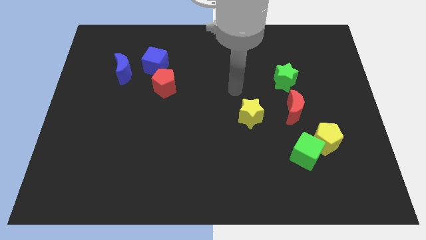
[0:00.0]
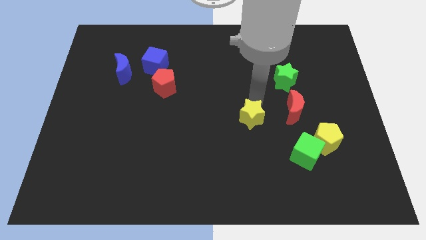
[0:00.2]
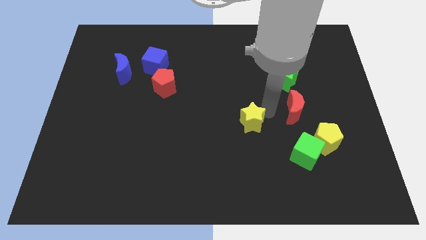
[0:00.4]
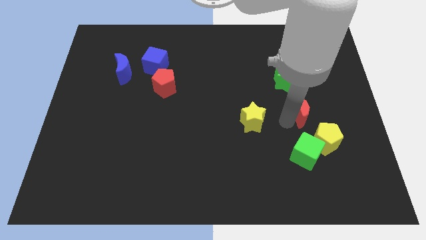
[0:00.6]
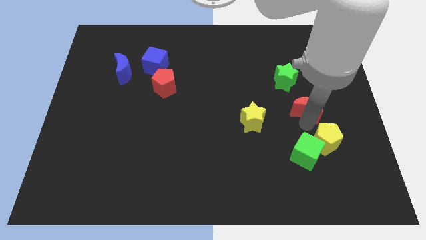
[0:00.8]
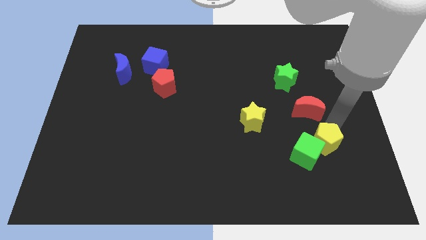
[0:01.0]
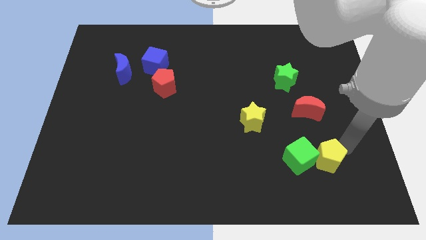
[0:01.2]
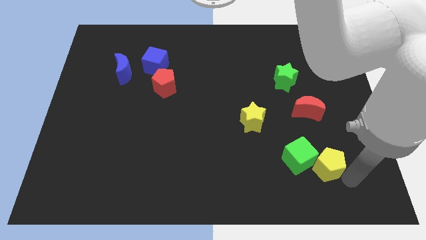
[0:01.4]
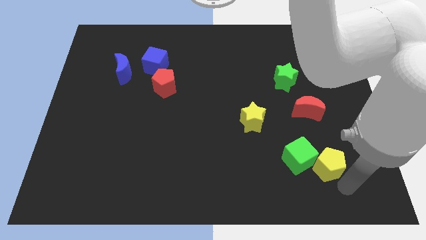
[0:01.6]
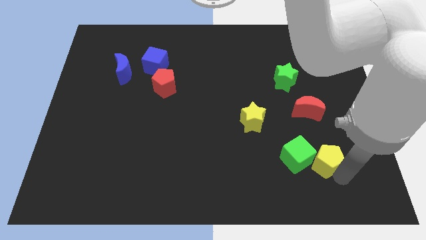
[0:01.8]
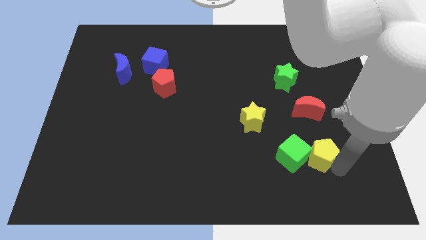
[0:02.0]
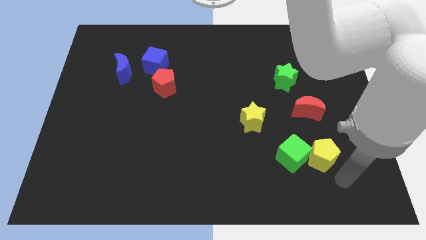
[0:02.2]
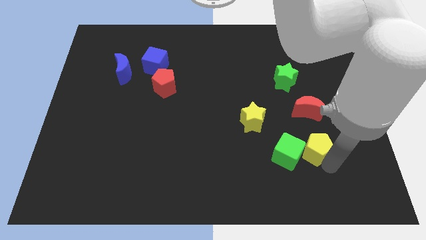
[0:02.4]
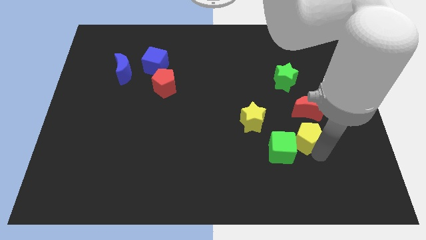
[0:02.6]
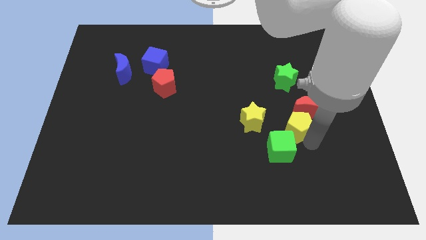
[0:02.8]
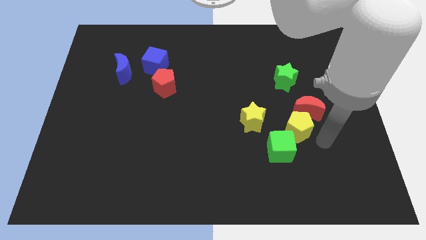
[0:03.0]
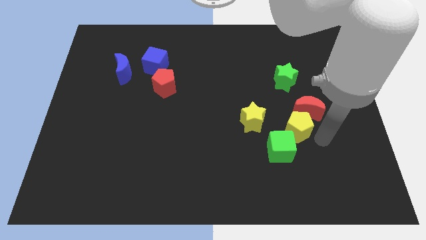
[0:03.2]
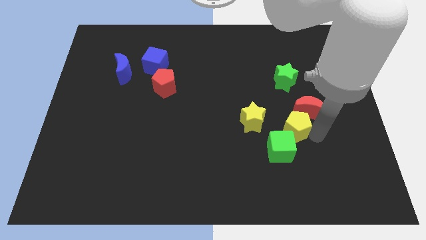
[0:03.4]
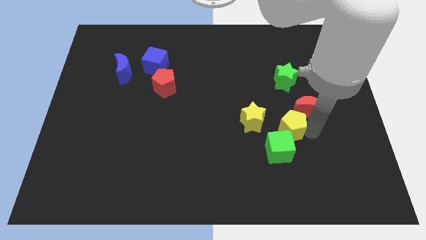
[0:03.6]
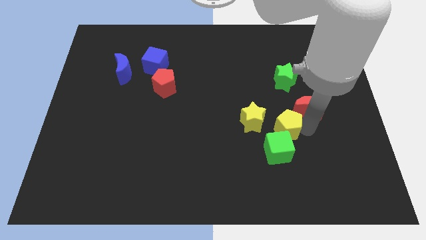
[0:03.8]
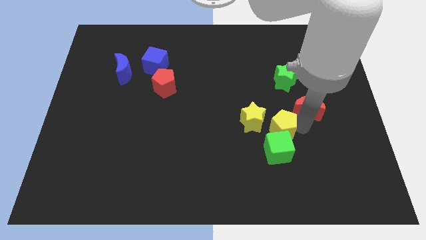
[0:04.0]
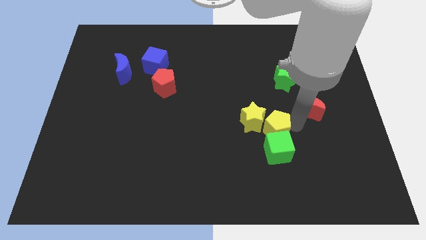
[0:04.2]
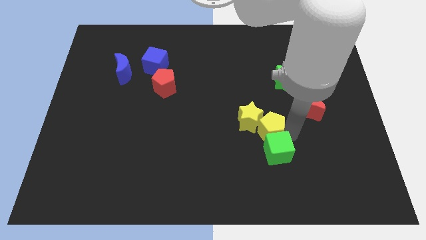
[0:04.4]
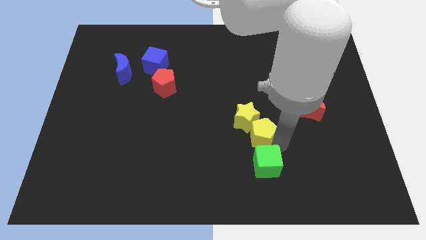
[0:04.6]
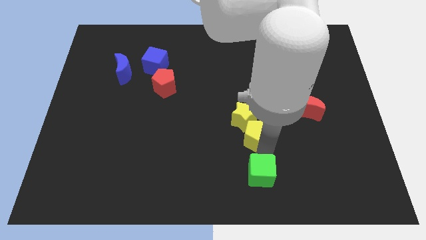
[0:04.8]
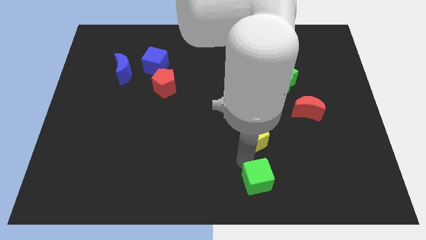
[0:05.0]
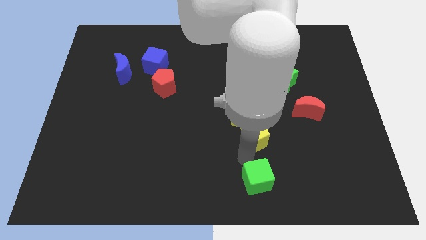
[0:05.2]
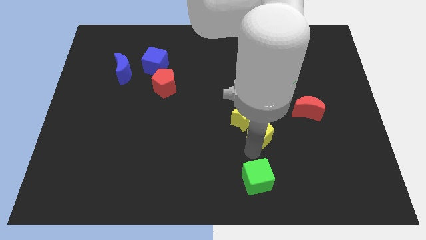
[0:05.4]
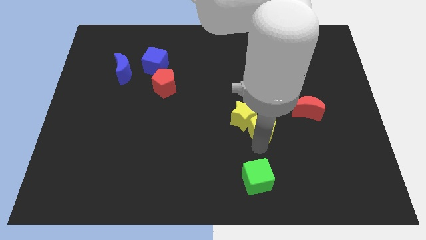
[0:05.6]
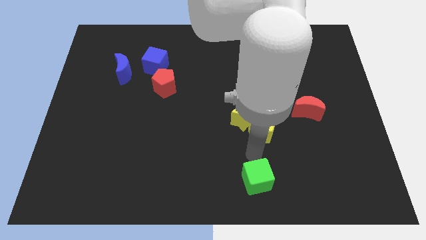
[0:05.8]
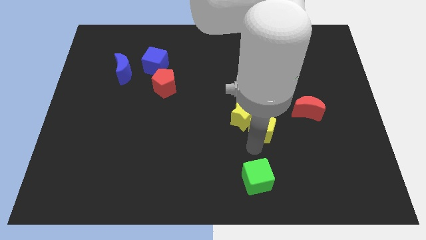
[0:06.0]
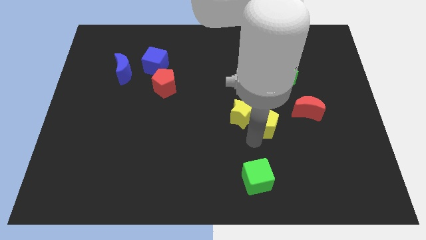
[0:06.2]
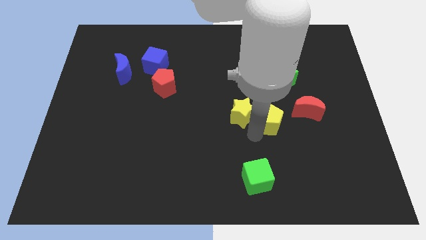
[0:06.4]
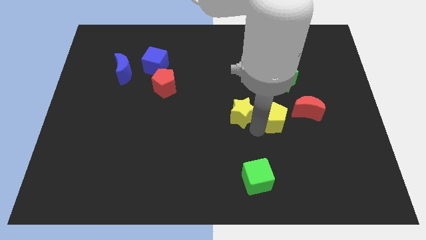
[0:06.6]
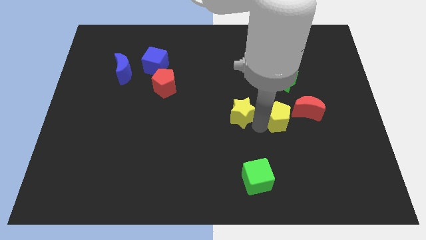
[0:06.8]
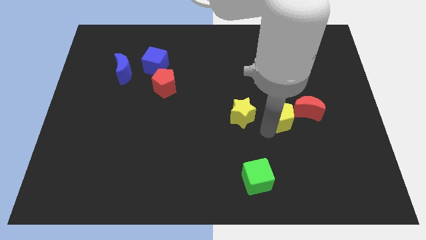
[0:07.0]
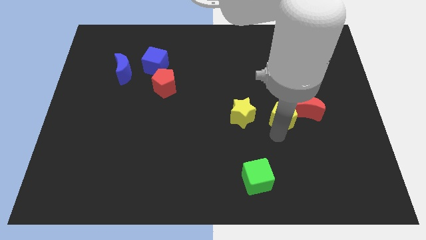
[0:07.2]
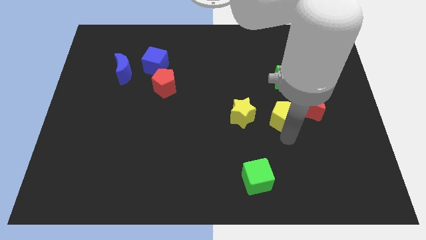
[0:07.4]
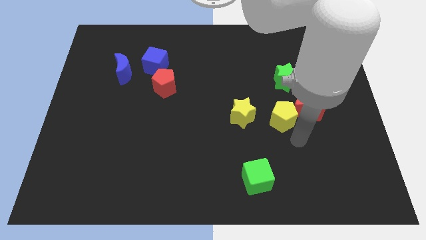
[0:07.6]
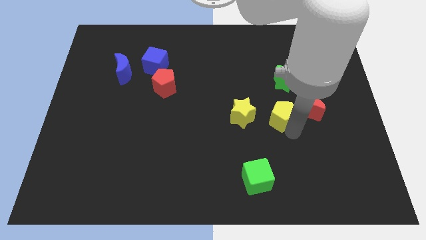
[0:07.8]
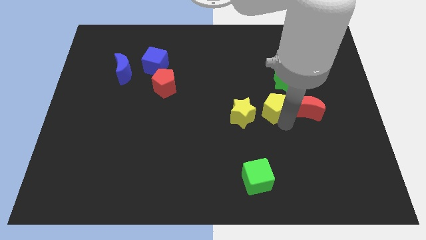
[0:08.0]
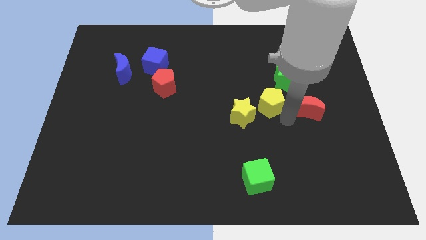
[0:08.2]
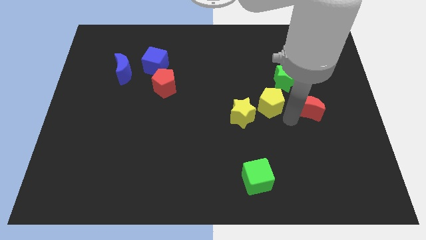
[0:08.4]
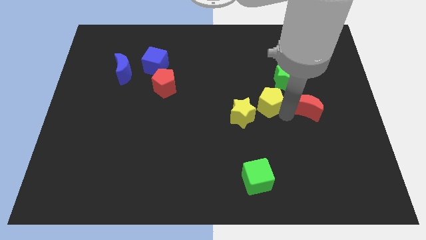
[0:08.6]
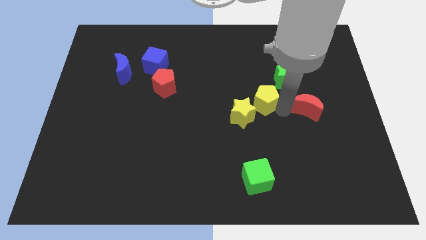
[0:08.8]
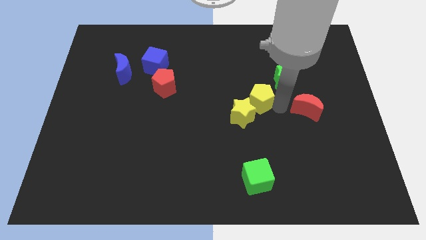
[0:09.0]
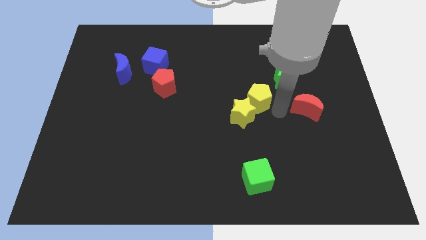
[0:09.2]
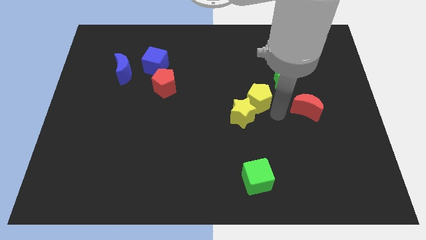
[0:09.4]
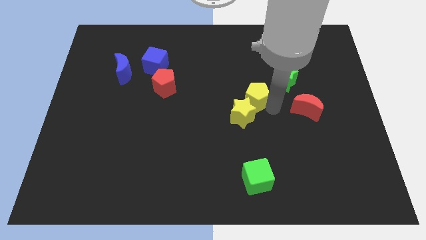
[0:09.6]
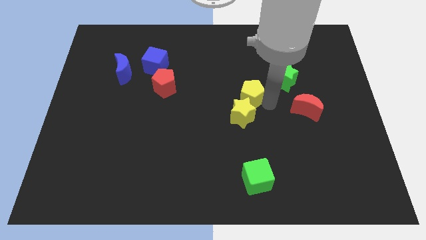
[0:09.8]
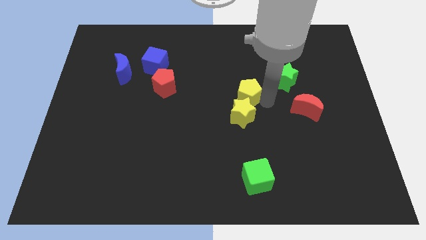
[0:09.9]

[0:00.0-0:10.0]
move the yellow pentagon up and left

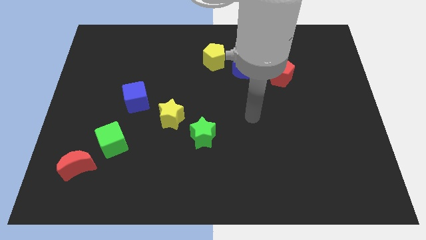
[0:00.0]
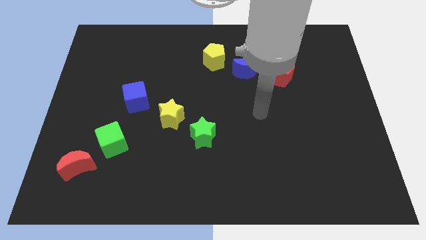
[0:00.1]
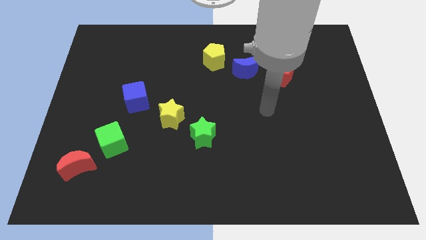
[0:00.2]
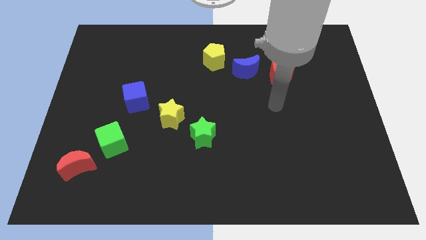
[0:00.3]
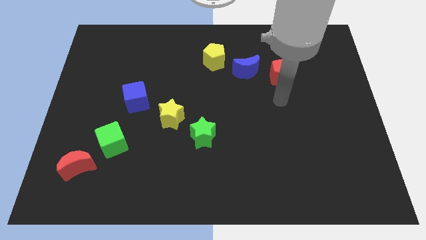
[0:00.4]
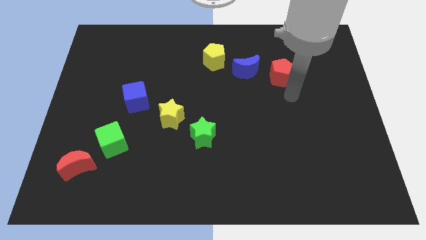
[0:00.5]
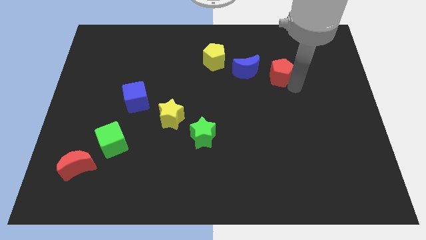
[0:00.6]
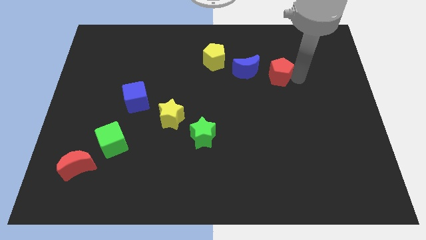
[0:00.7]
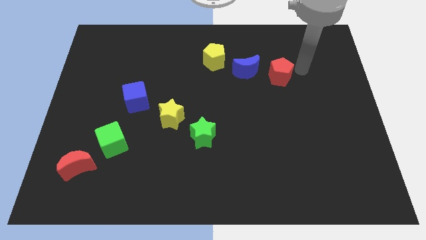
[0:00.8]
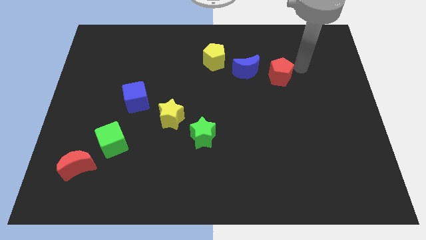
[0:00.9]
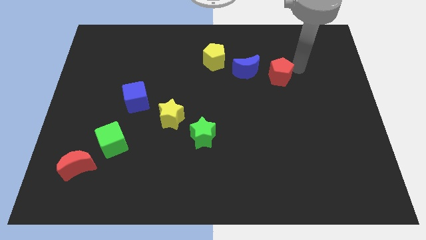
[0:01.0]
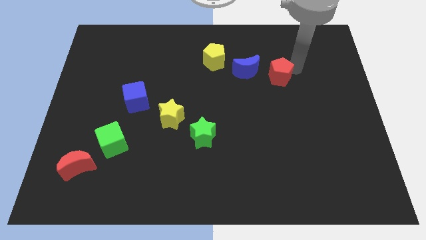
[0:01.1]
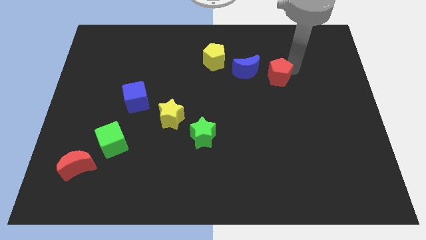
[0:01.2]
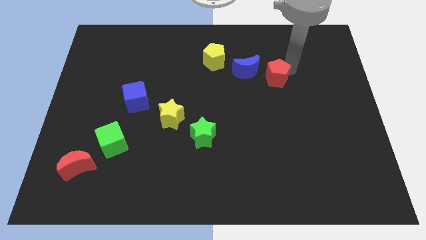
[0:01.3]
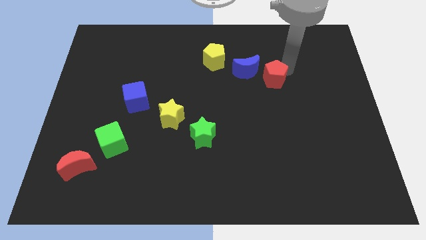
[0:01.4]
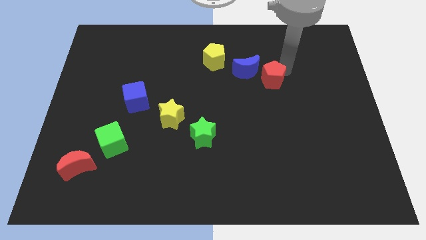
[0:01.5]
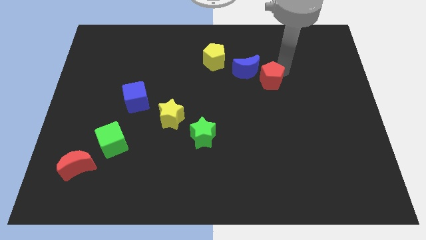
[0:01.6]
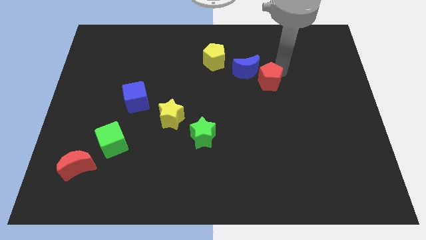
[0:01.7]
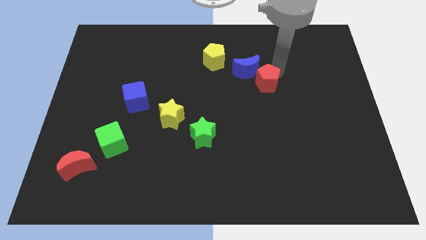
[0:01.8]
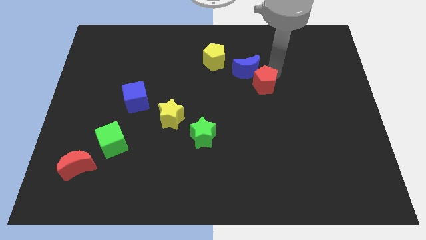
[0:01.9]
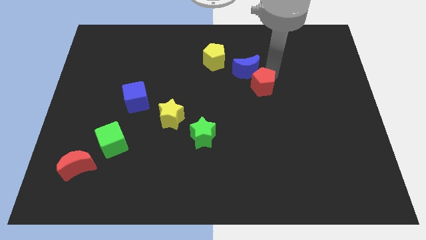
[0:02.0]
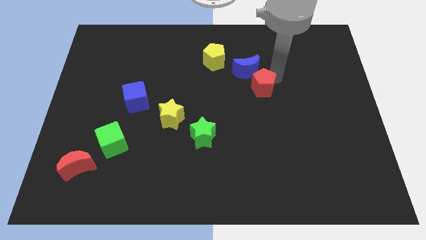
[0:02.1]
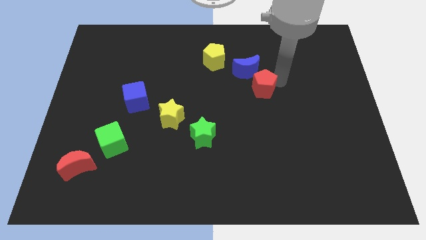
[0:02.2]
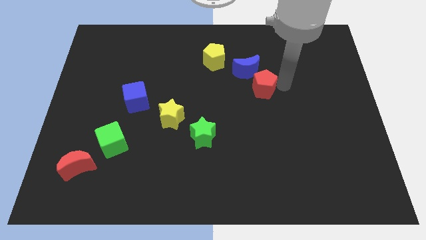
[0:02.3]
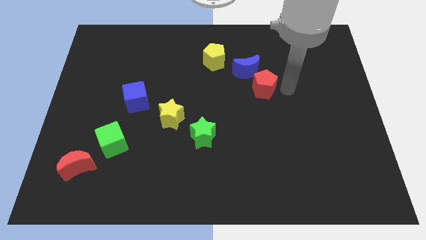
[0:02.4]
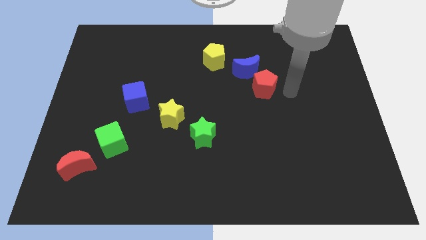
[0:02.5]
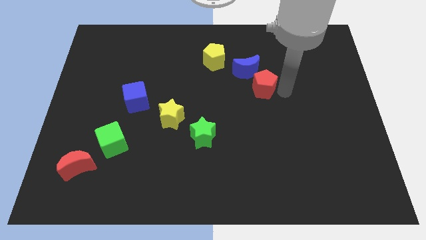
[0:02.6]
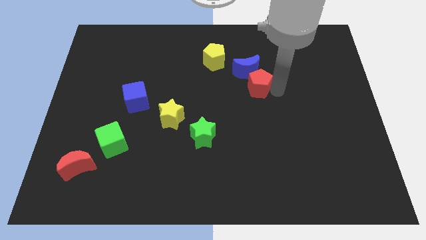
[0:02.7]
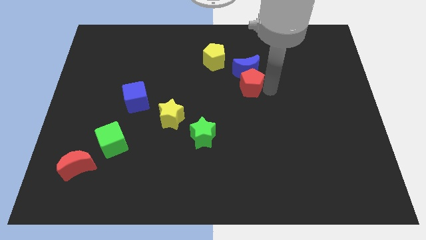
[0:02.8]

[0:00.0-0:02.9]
push the red pentagon left somewhat
